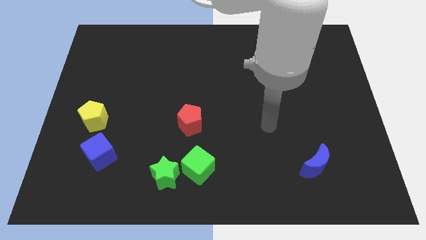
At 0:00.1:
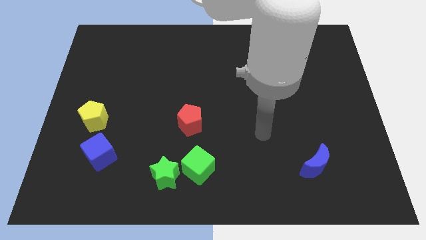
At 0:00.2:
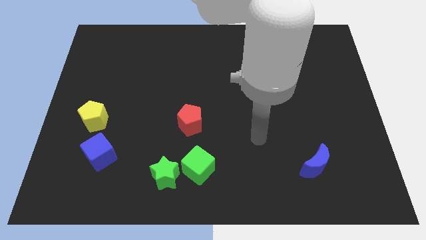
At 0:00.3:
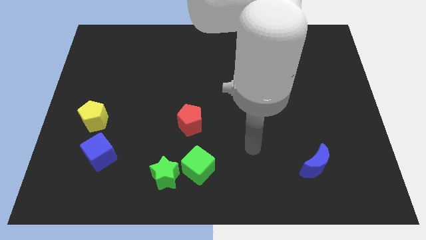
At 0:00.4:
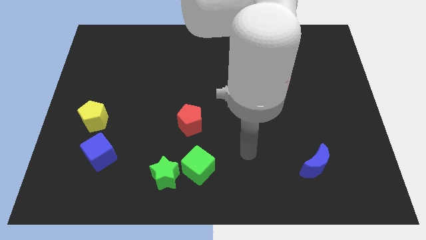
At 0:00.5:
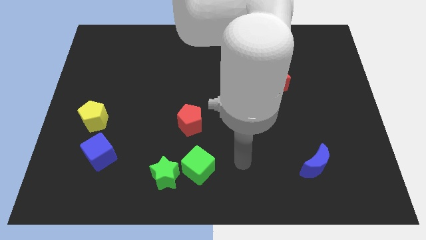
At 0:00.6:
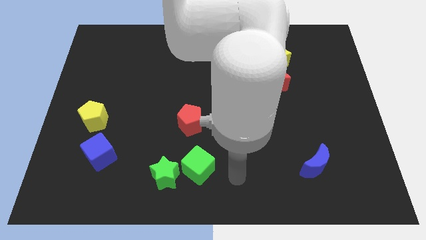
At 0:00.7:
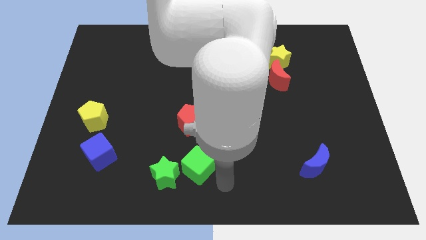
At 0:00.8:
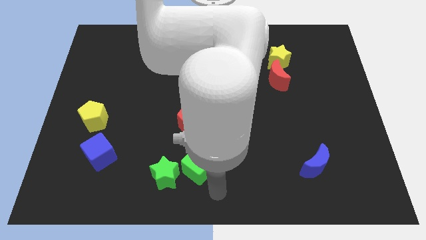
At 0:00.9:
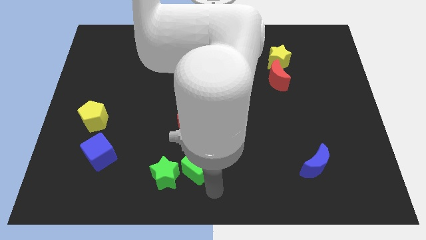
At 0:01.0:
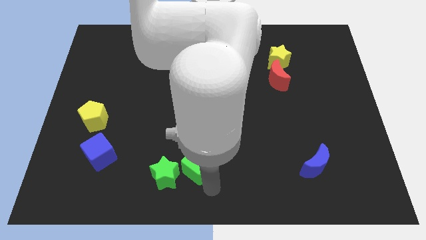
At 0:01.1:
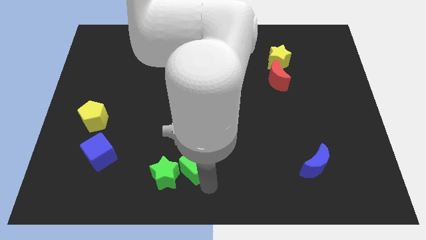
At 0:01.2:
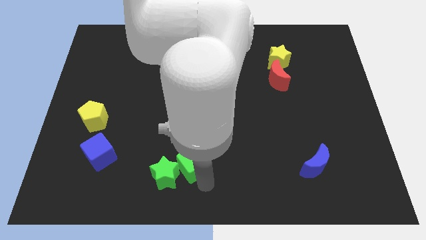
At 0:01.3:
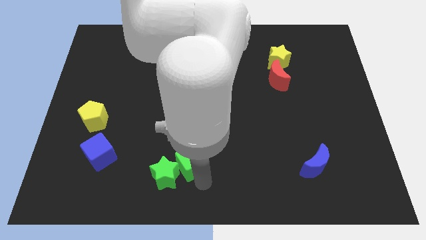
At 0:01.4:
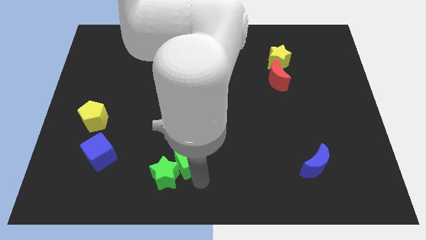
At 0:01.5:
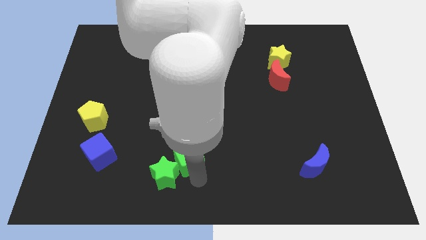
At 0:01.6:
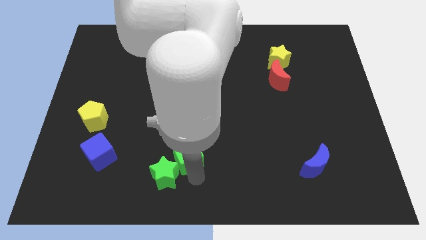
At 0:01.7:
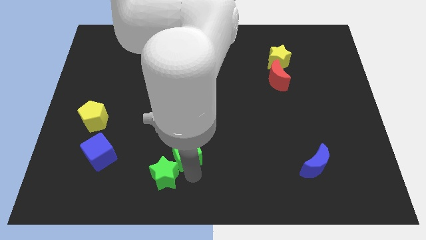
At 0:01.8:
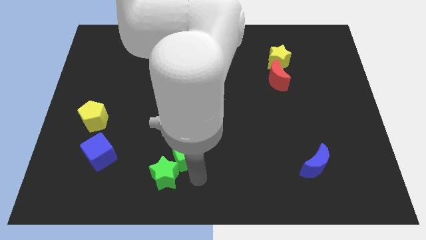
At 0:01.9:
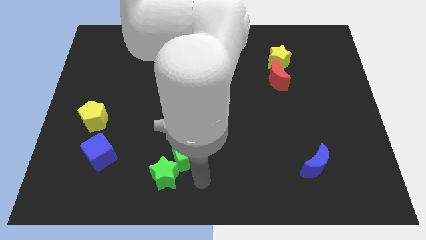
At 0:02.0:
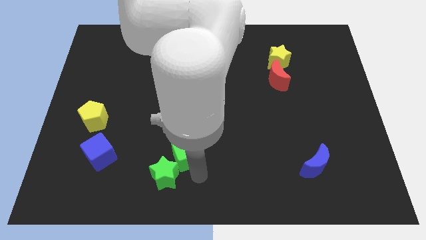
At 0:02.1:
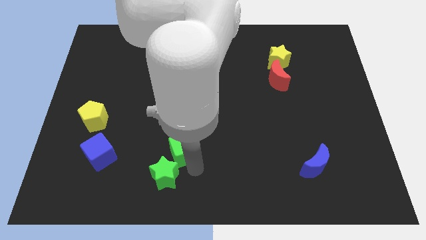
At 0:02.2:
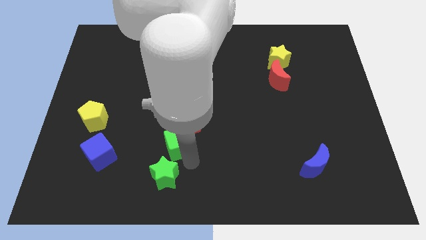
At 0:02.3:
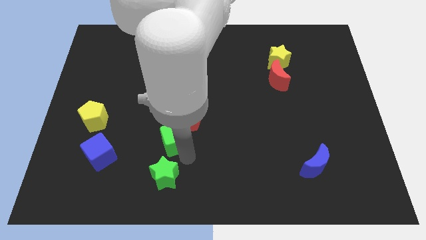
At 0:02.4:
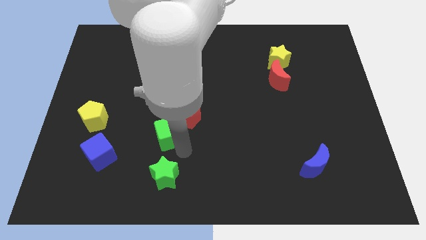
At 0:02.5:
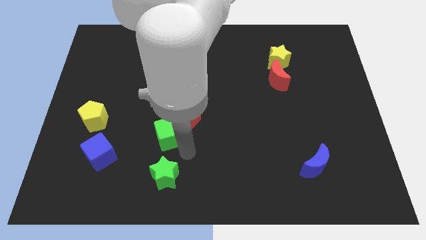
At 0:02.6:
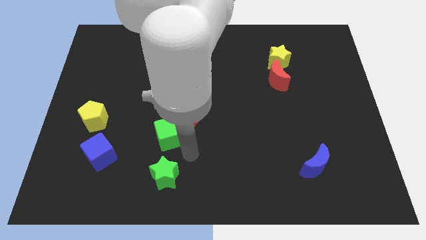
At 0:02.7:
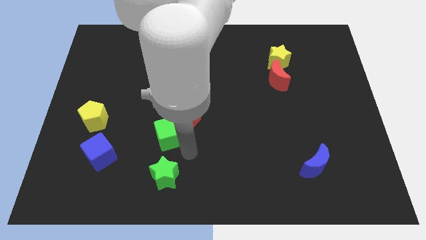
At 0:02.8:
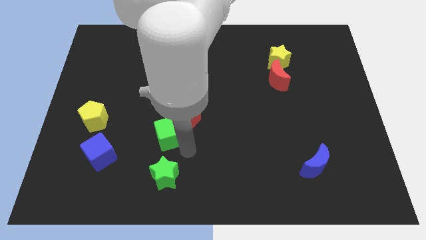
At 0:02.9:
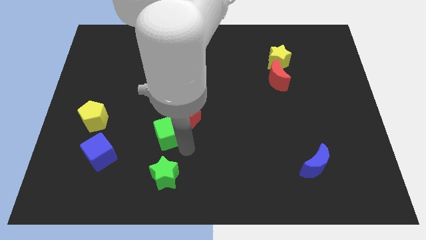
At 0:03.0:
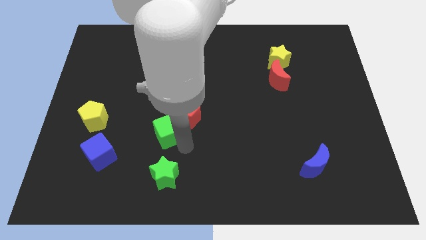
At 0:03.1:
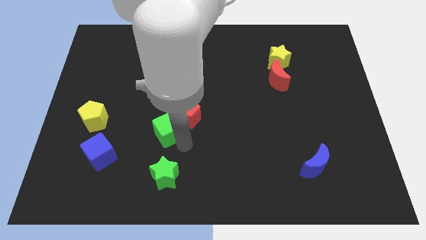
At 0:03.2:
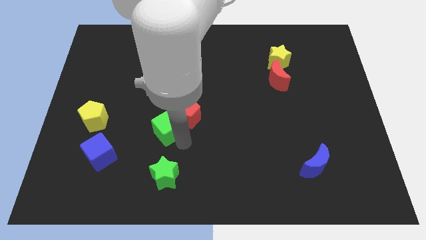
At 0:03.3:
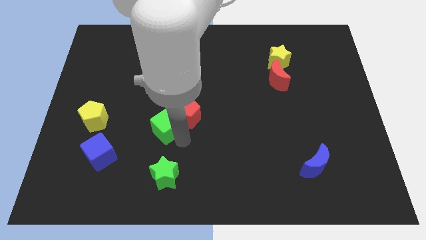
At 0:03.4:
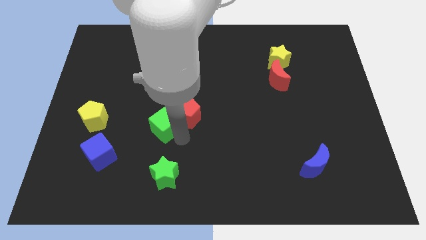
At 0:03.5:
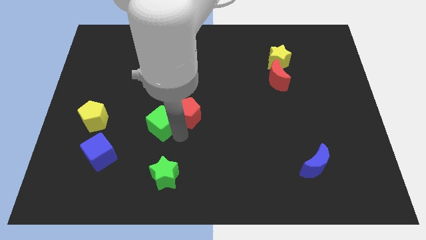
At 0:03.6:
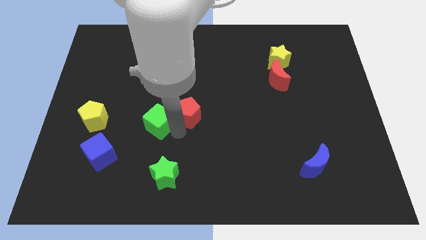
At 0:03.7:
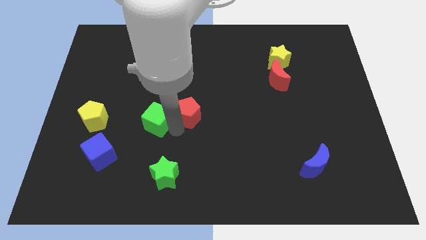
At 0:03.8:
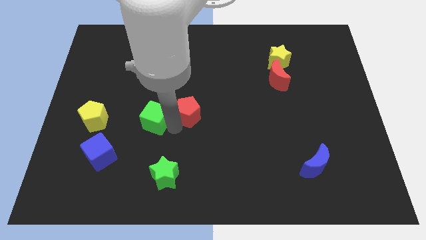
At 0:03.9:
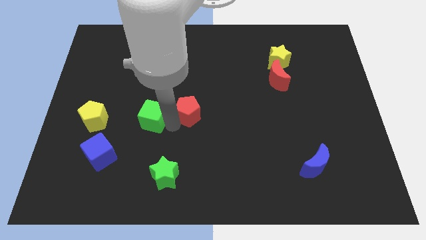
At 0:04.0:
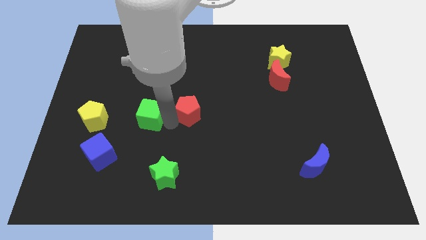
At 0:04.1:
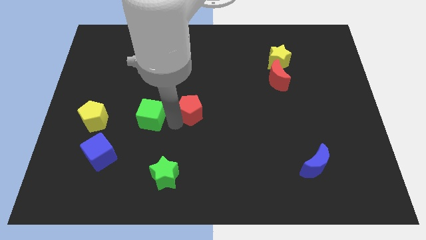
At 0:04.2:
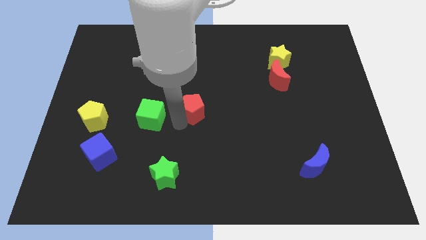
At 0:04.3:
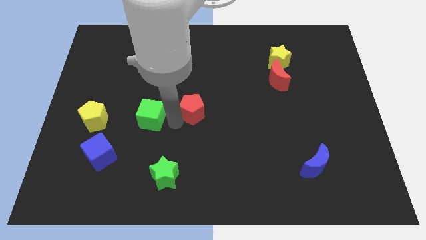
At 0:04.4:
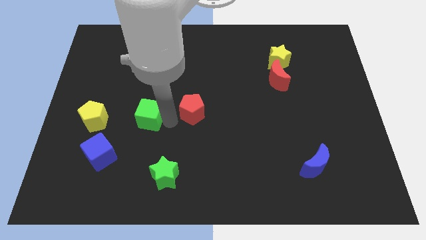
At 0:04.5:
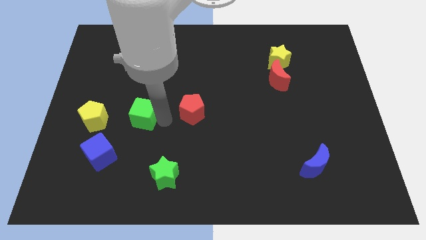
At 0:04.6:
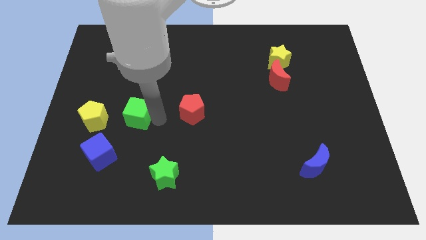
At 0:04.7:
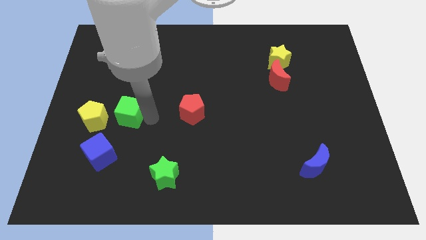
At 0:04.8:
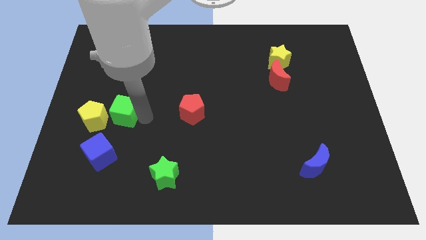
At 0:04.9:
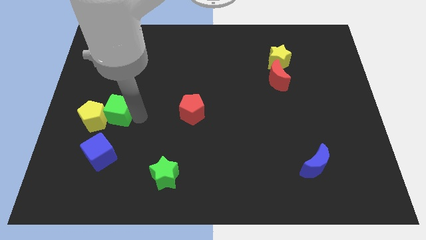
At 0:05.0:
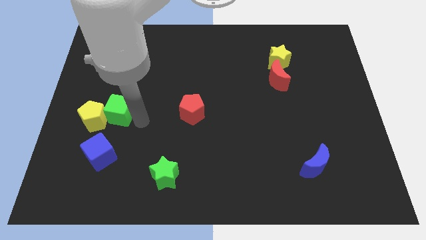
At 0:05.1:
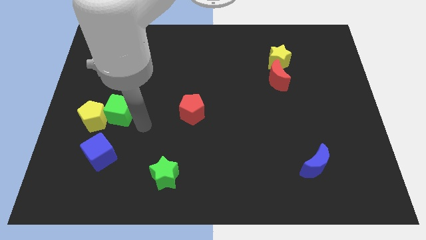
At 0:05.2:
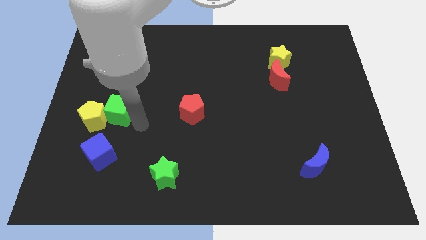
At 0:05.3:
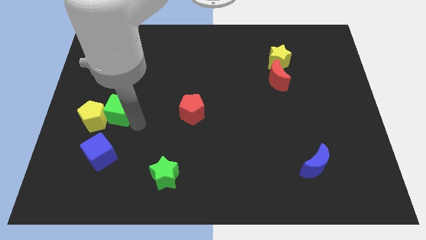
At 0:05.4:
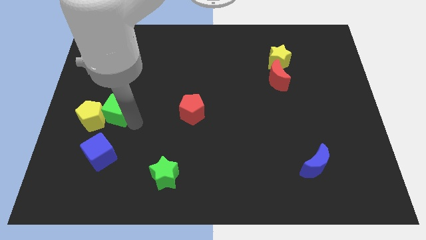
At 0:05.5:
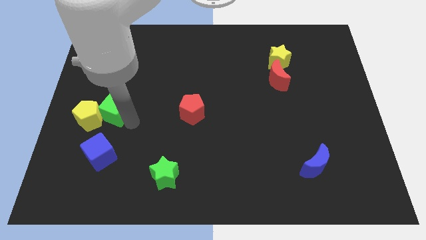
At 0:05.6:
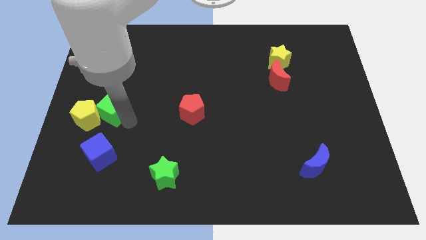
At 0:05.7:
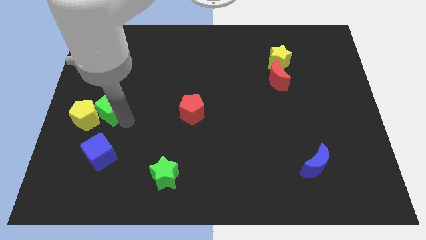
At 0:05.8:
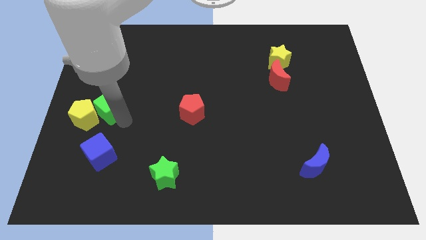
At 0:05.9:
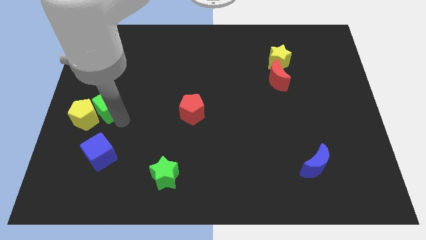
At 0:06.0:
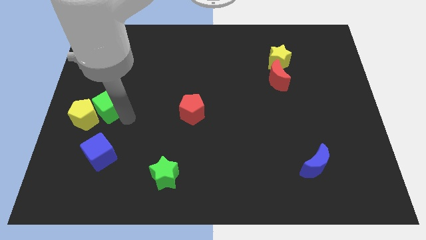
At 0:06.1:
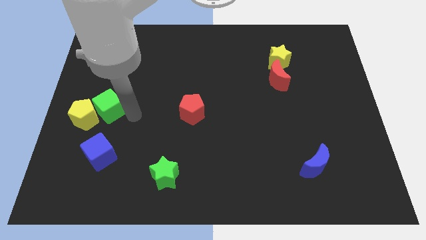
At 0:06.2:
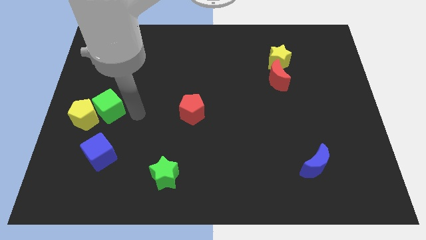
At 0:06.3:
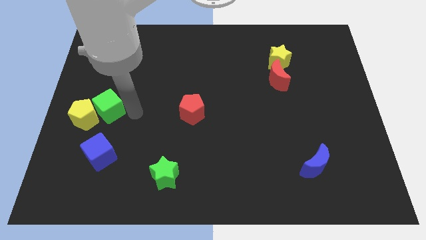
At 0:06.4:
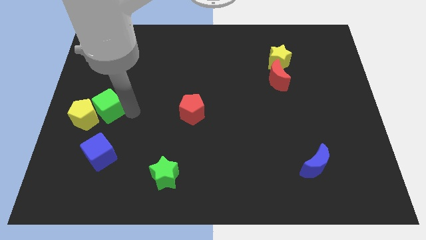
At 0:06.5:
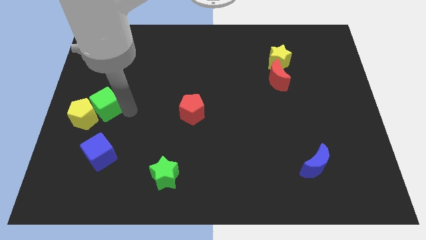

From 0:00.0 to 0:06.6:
push the green cube to the left side

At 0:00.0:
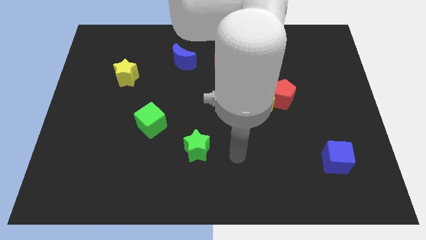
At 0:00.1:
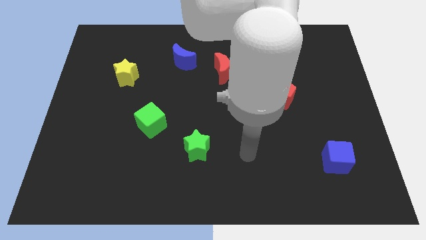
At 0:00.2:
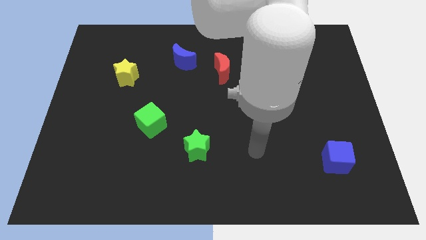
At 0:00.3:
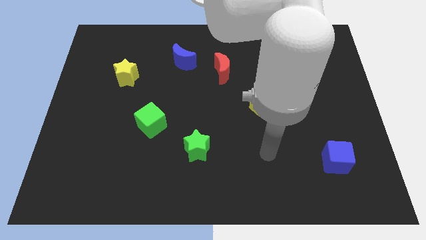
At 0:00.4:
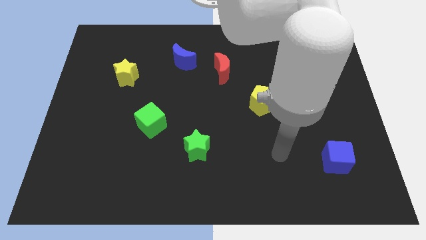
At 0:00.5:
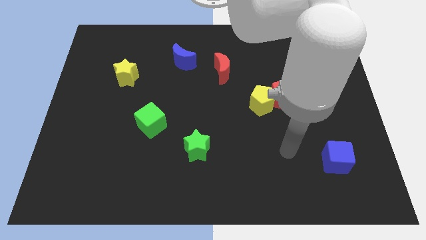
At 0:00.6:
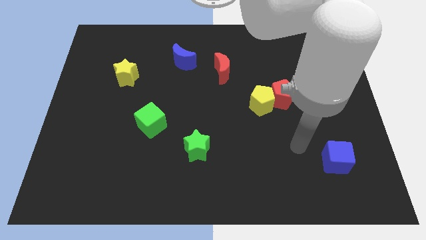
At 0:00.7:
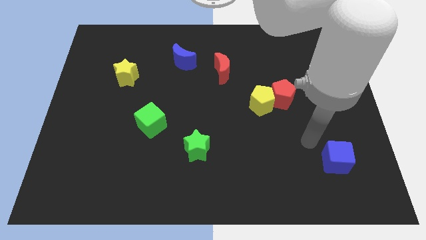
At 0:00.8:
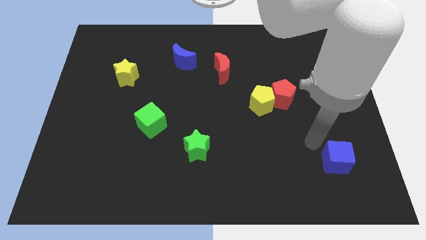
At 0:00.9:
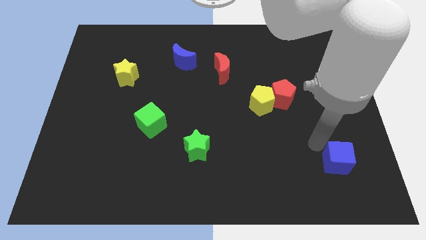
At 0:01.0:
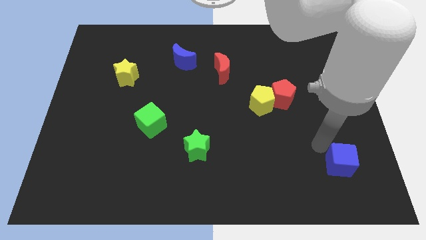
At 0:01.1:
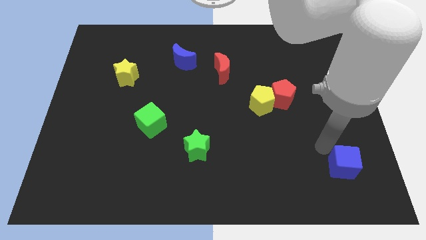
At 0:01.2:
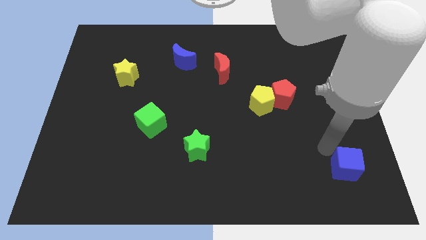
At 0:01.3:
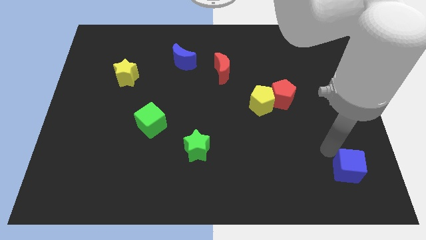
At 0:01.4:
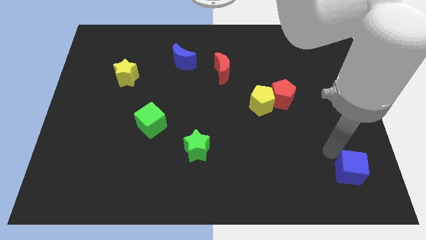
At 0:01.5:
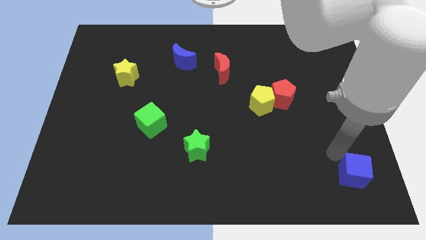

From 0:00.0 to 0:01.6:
push the blue cube to the bottom right
